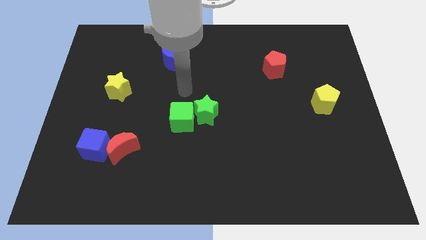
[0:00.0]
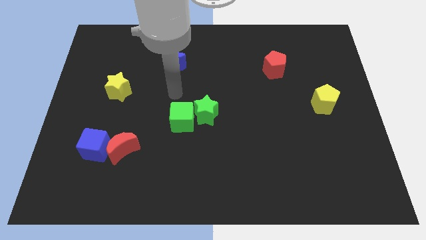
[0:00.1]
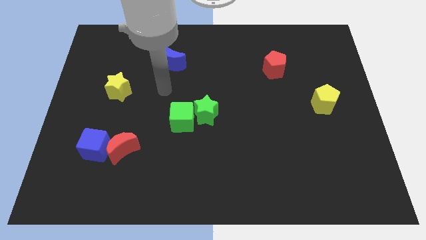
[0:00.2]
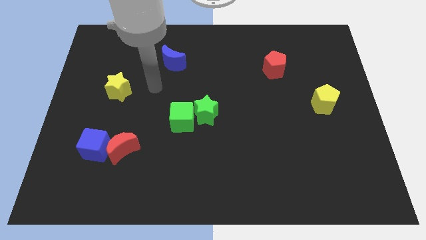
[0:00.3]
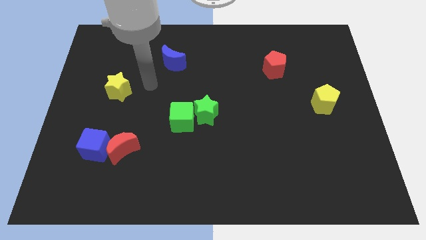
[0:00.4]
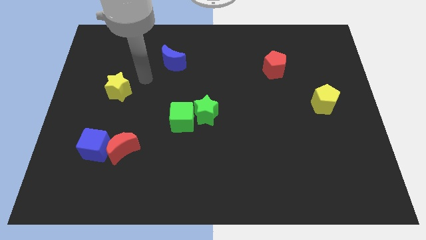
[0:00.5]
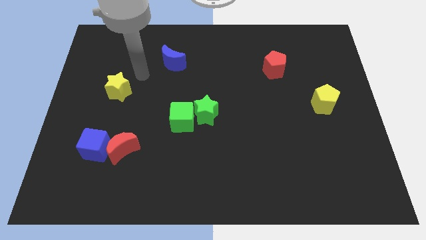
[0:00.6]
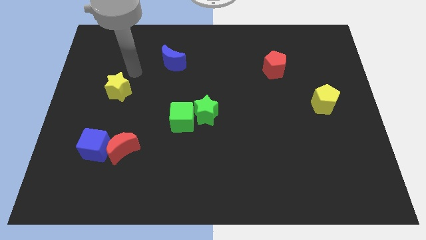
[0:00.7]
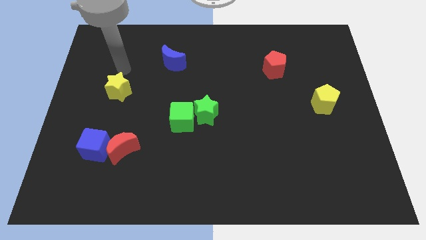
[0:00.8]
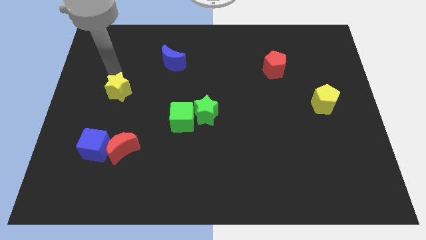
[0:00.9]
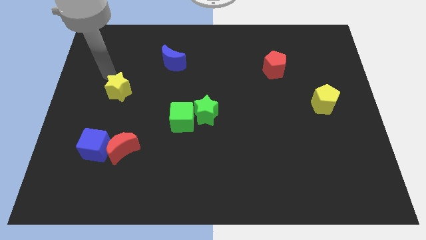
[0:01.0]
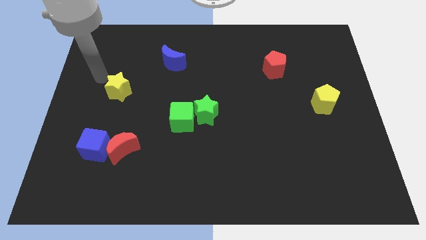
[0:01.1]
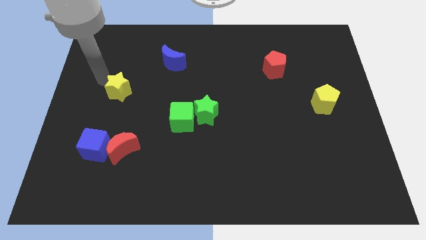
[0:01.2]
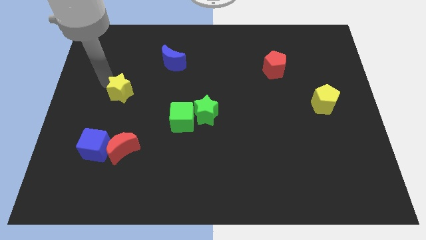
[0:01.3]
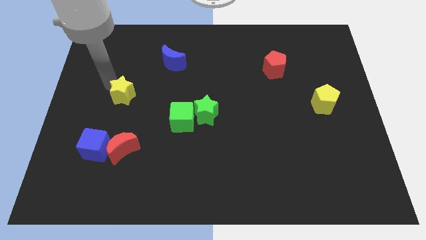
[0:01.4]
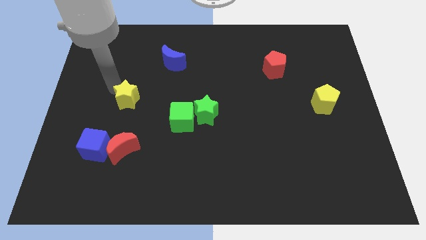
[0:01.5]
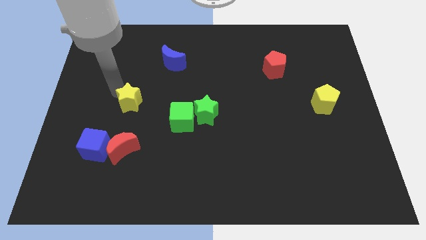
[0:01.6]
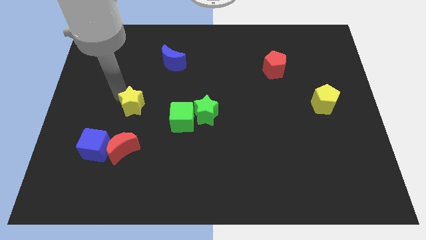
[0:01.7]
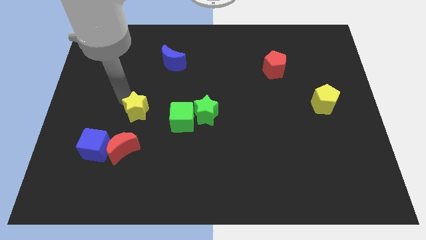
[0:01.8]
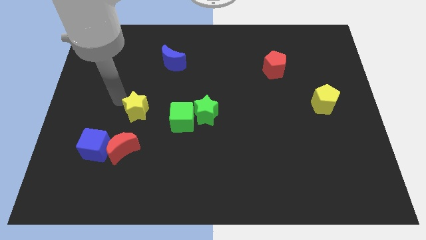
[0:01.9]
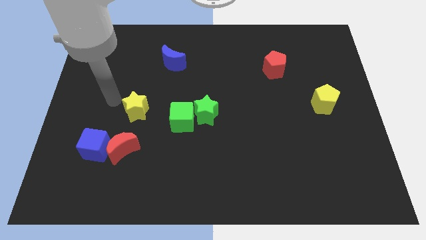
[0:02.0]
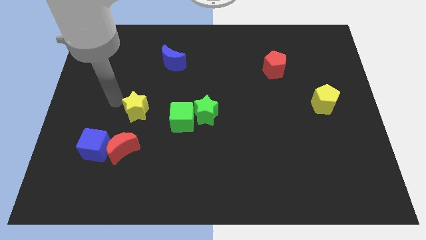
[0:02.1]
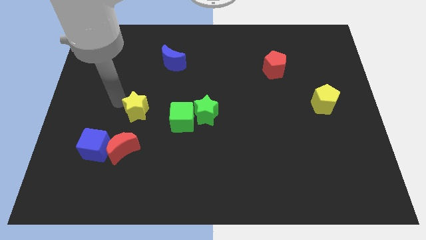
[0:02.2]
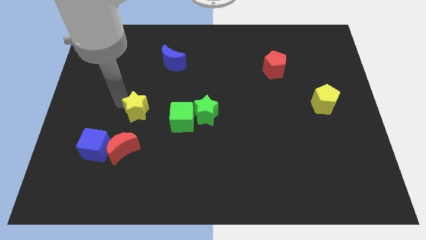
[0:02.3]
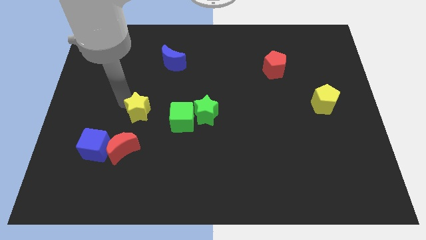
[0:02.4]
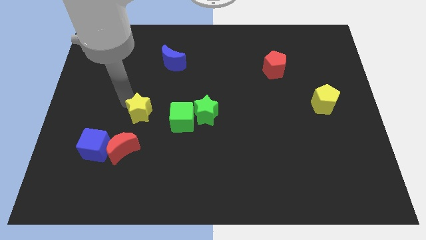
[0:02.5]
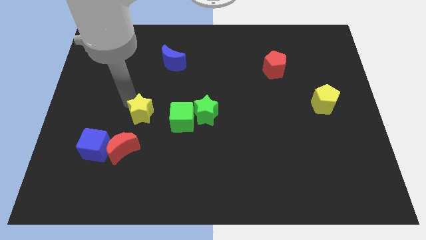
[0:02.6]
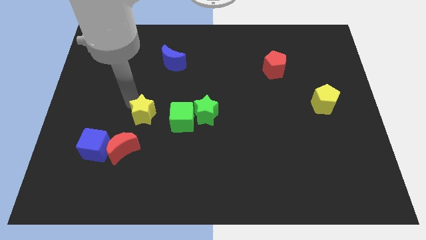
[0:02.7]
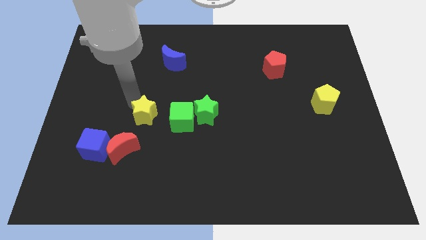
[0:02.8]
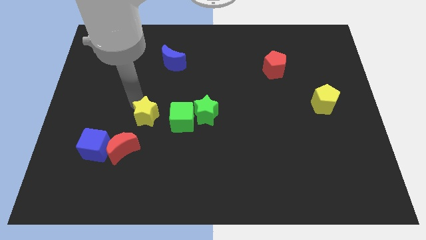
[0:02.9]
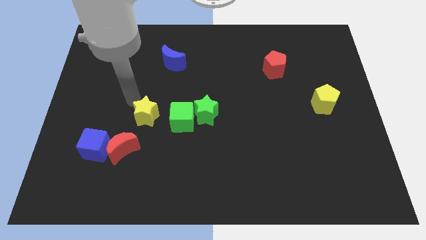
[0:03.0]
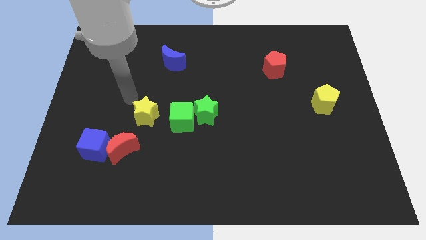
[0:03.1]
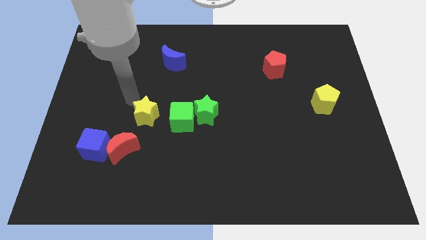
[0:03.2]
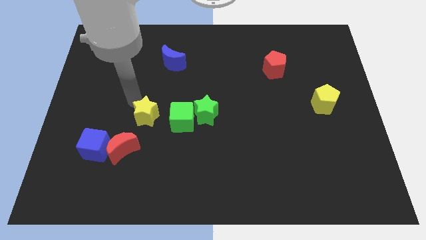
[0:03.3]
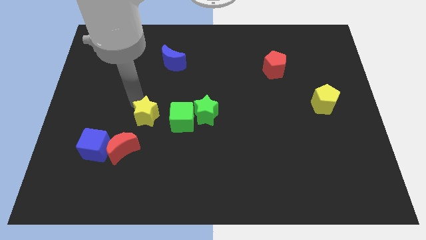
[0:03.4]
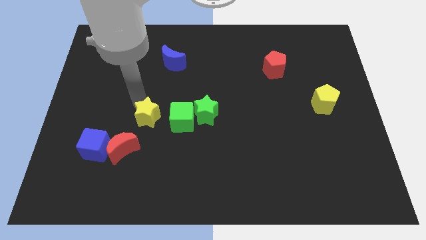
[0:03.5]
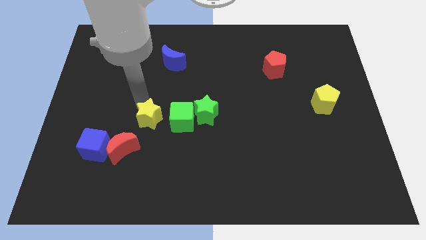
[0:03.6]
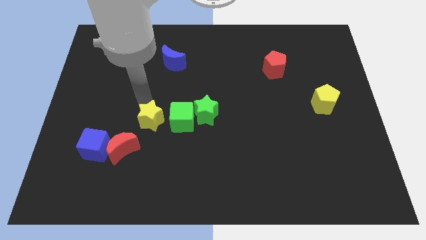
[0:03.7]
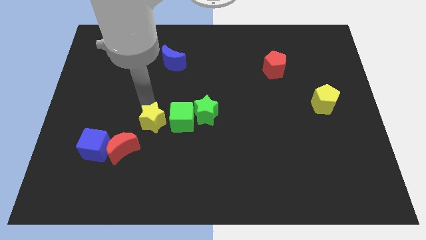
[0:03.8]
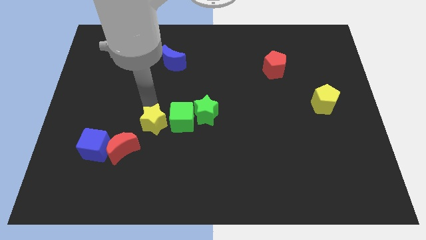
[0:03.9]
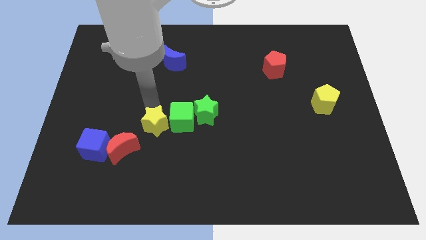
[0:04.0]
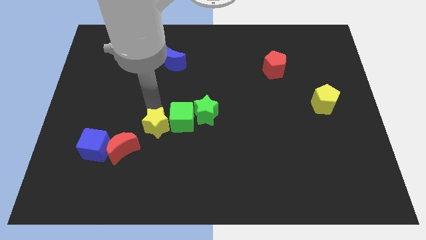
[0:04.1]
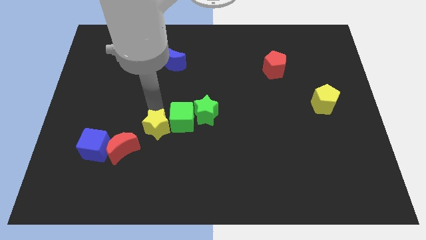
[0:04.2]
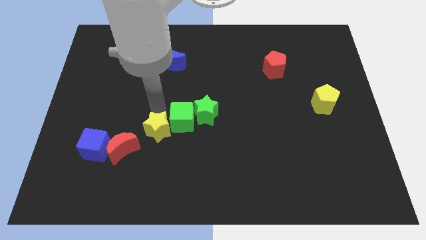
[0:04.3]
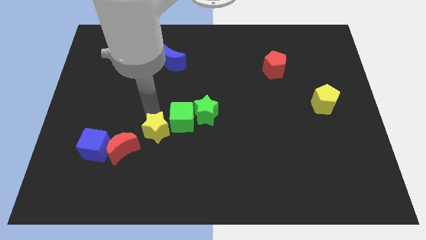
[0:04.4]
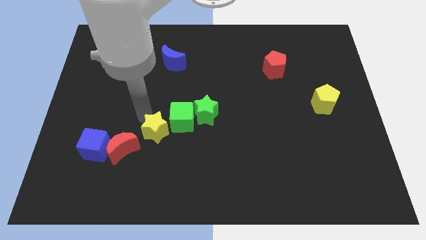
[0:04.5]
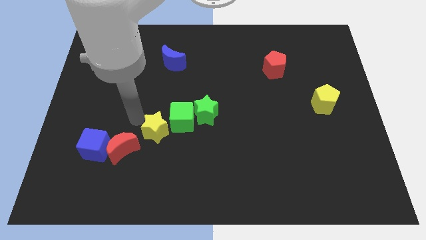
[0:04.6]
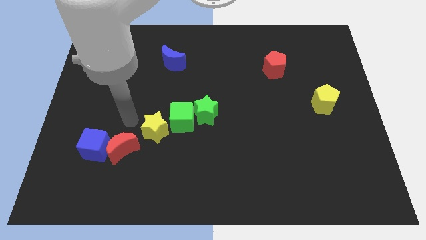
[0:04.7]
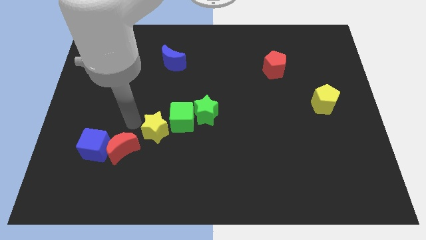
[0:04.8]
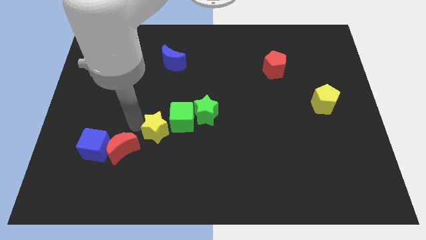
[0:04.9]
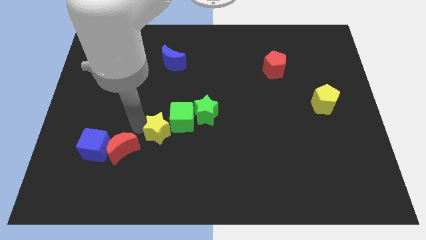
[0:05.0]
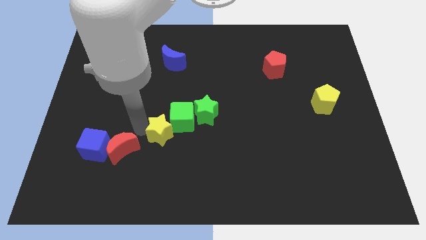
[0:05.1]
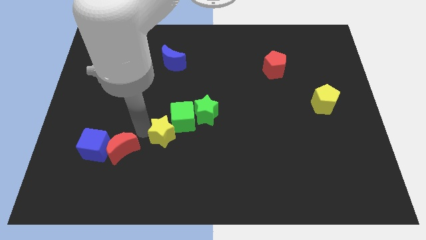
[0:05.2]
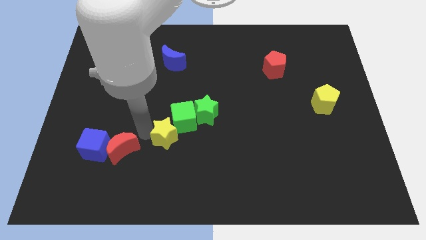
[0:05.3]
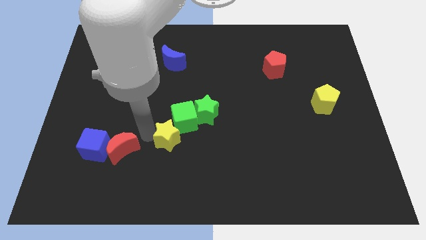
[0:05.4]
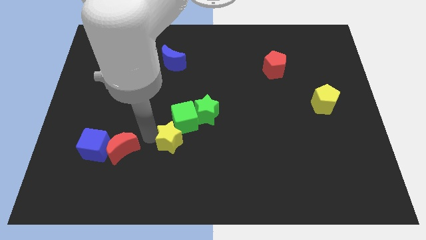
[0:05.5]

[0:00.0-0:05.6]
push the yellow star down and right diagonally

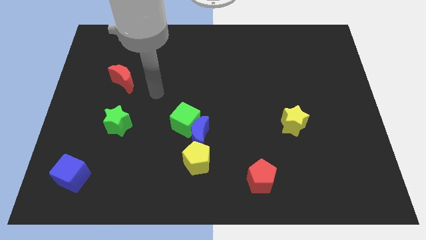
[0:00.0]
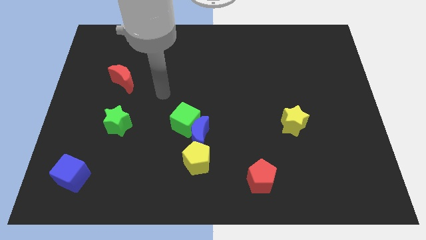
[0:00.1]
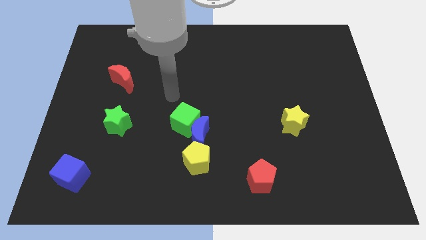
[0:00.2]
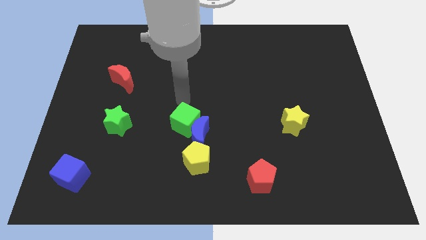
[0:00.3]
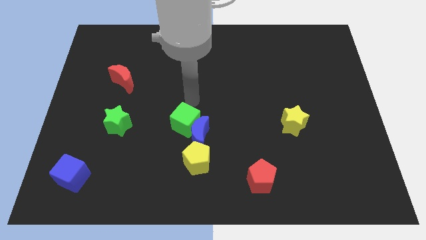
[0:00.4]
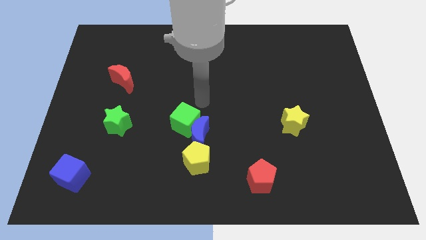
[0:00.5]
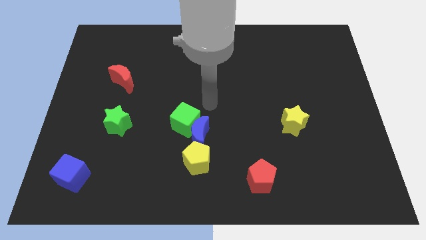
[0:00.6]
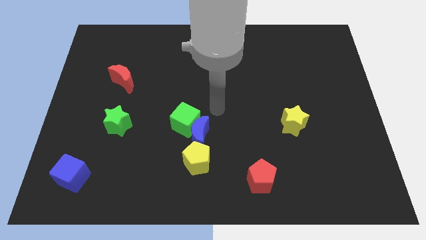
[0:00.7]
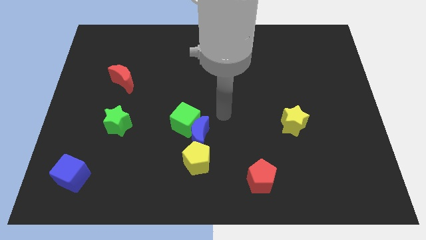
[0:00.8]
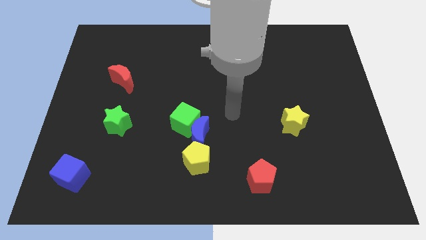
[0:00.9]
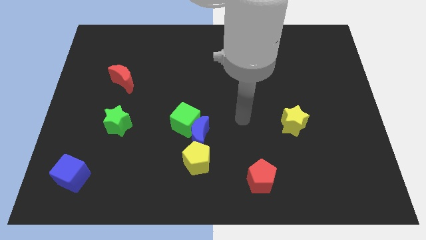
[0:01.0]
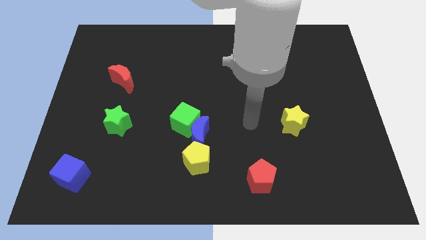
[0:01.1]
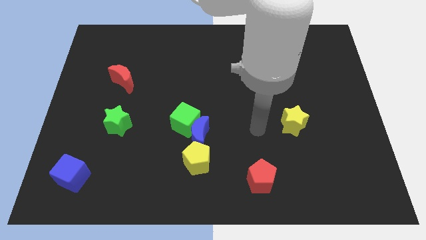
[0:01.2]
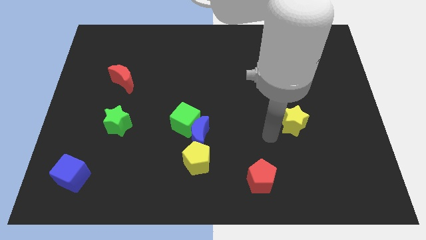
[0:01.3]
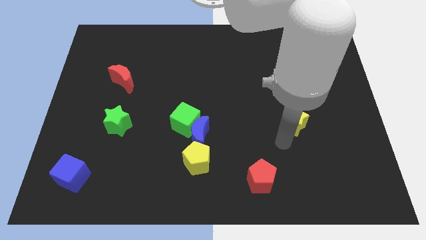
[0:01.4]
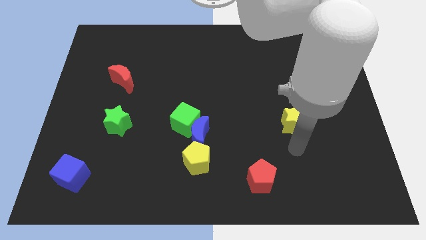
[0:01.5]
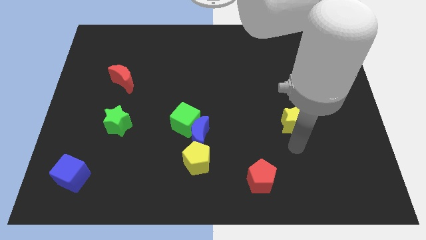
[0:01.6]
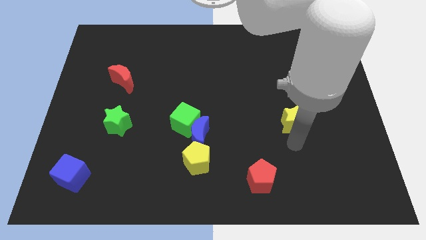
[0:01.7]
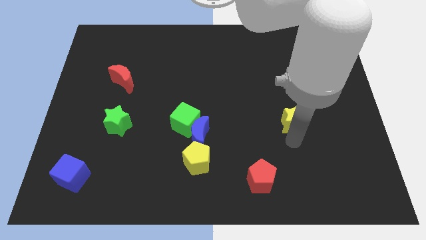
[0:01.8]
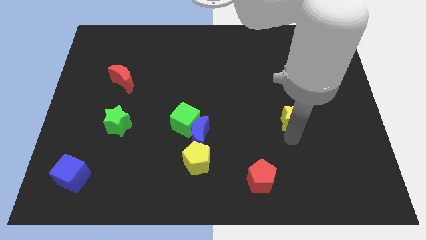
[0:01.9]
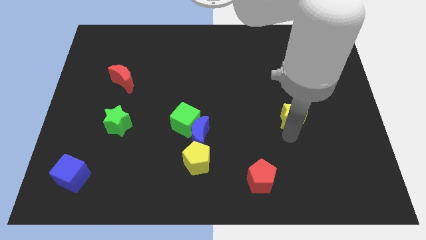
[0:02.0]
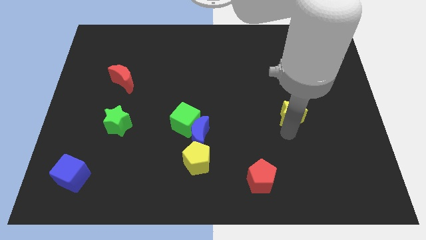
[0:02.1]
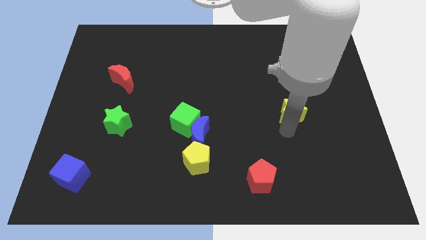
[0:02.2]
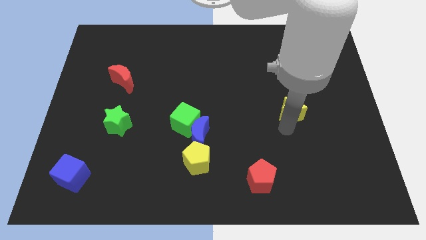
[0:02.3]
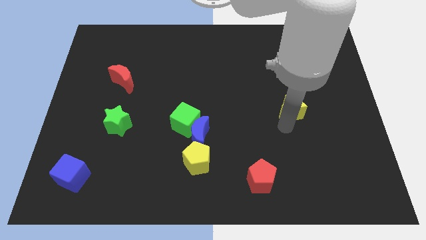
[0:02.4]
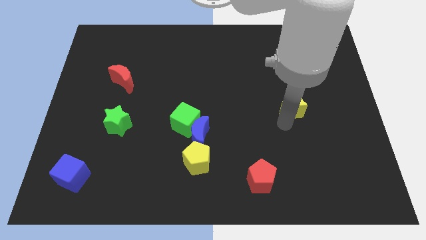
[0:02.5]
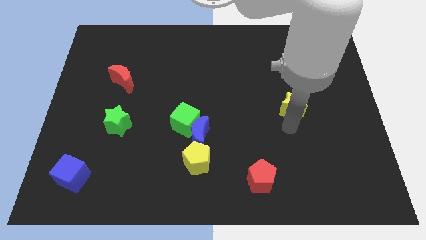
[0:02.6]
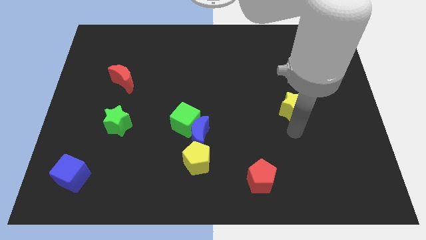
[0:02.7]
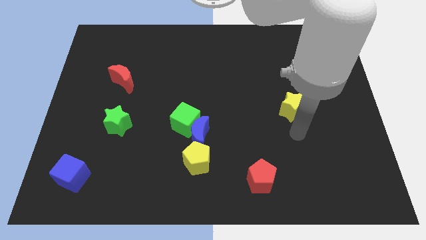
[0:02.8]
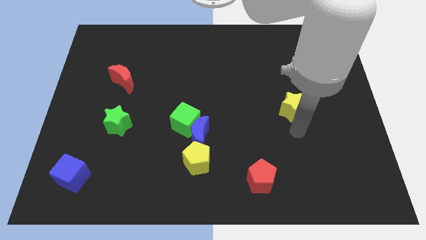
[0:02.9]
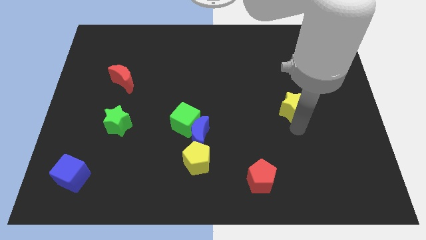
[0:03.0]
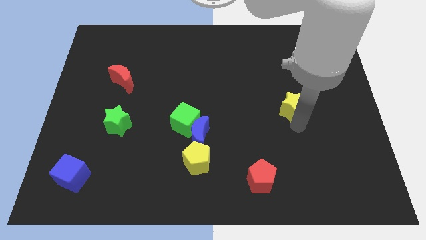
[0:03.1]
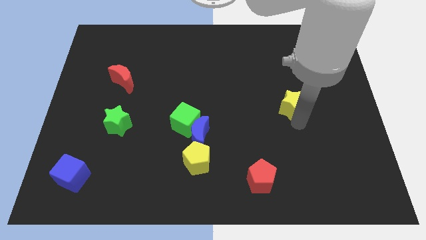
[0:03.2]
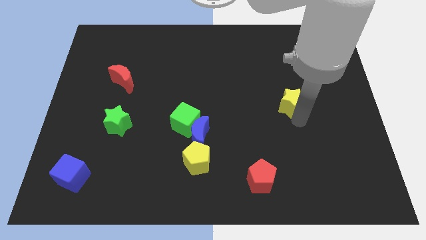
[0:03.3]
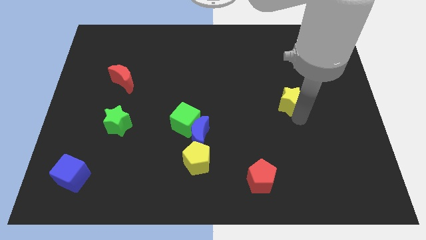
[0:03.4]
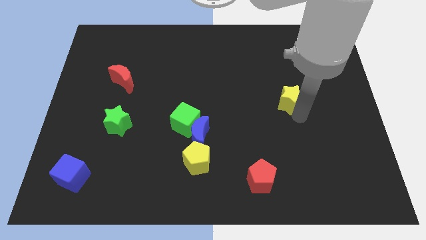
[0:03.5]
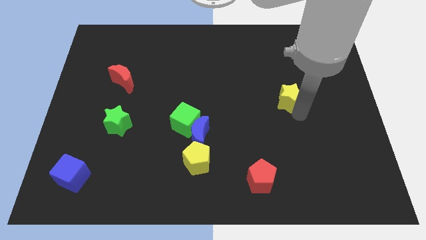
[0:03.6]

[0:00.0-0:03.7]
slide the yellow star up a little
